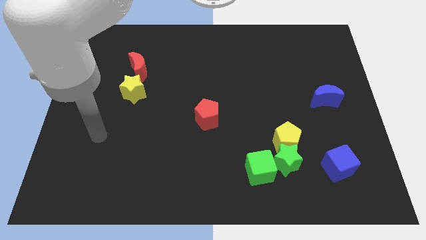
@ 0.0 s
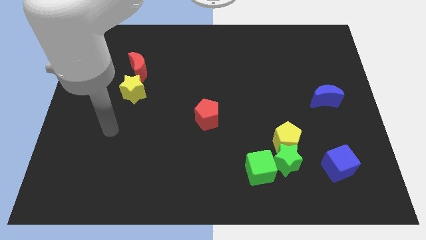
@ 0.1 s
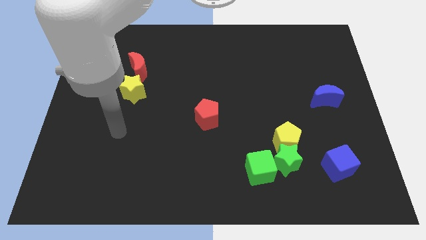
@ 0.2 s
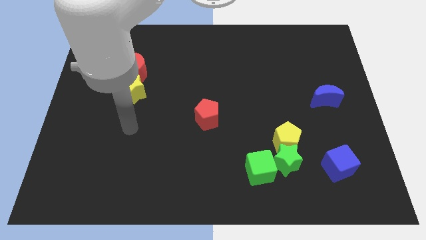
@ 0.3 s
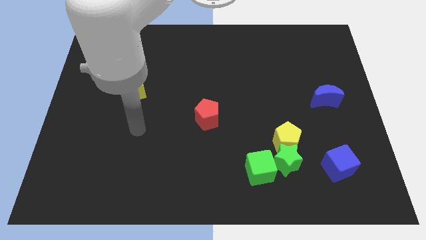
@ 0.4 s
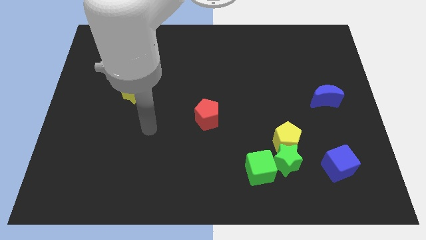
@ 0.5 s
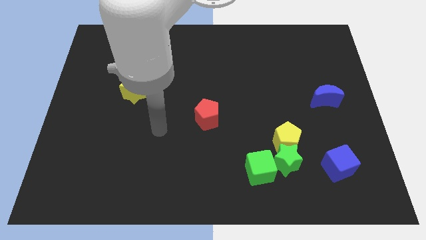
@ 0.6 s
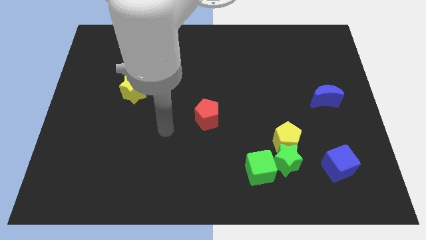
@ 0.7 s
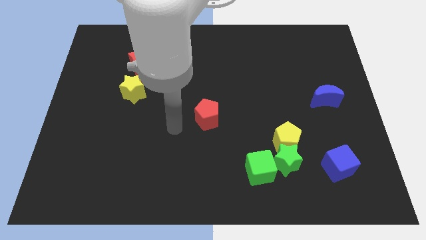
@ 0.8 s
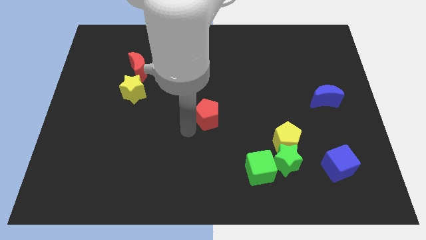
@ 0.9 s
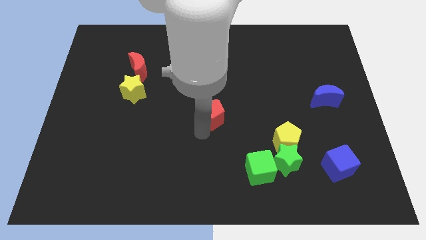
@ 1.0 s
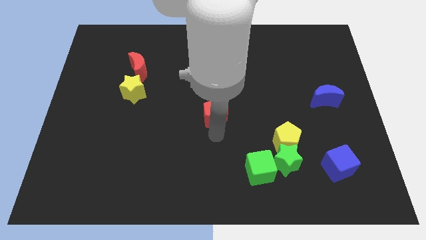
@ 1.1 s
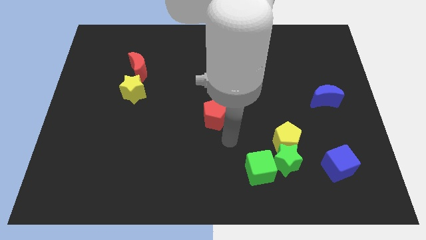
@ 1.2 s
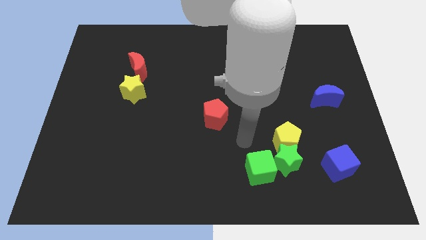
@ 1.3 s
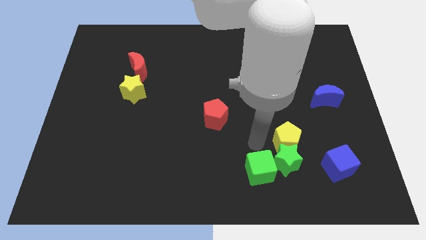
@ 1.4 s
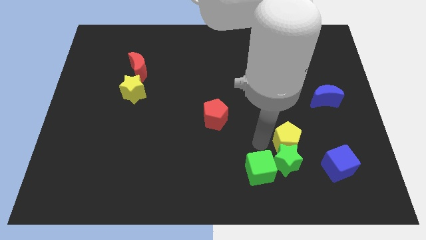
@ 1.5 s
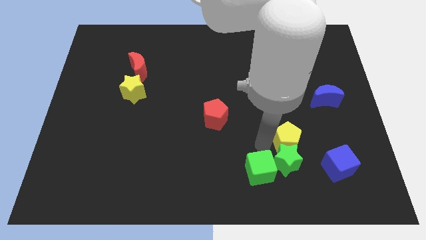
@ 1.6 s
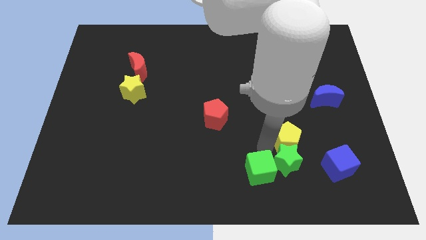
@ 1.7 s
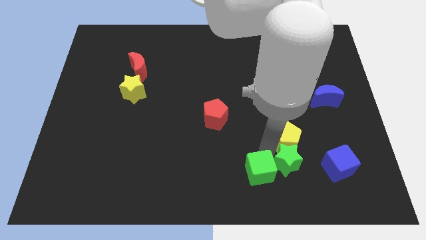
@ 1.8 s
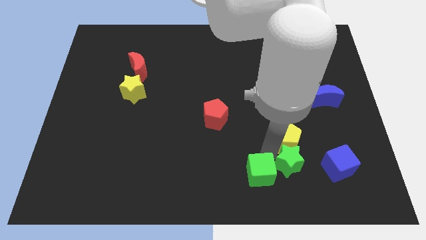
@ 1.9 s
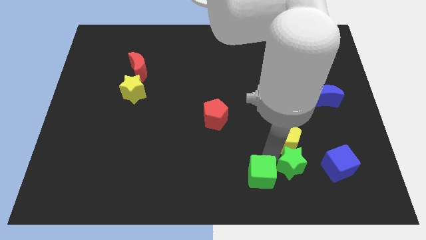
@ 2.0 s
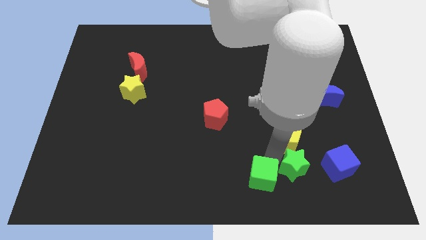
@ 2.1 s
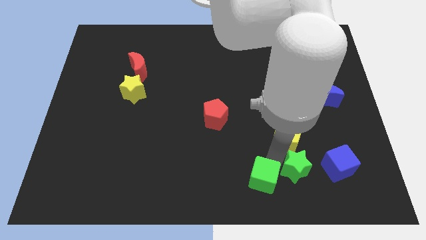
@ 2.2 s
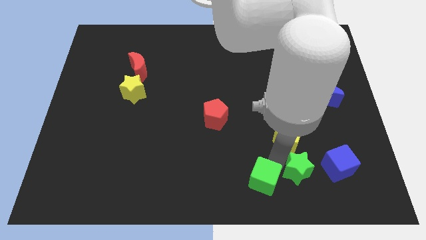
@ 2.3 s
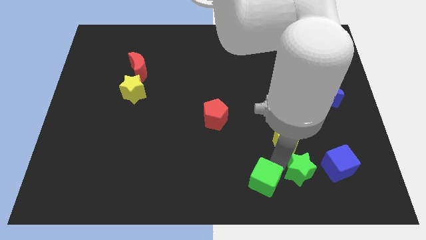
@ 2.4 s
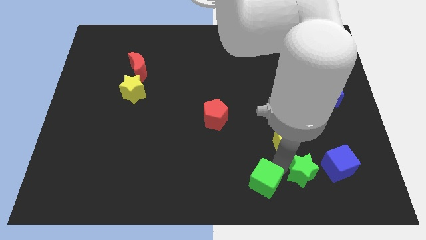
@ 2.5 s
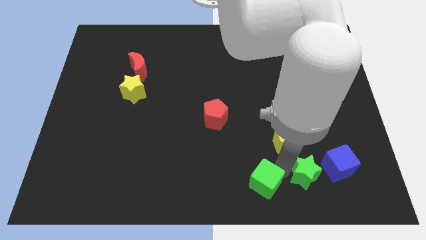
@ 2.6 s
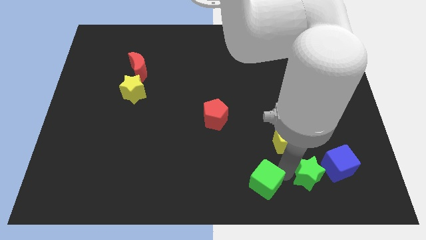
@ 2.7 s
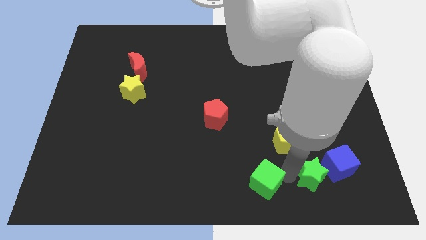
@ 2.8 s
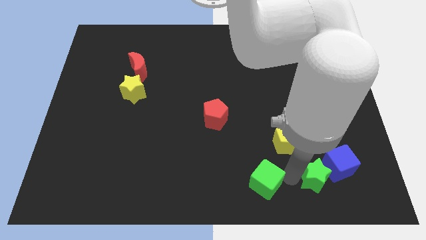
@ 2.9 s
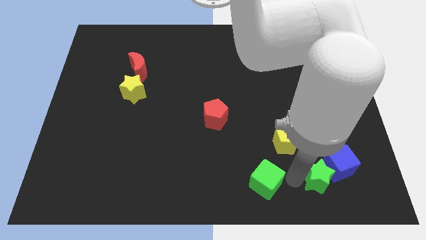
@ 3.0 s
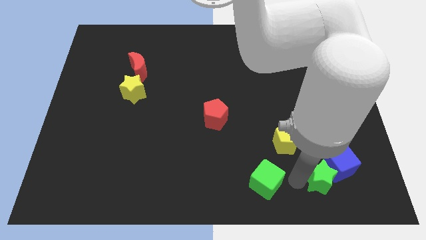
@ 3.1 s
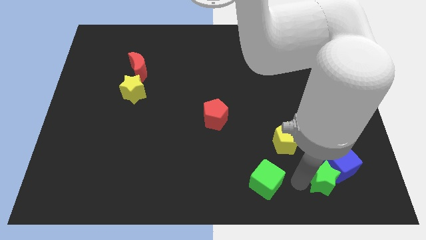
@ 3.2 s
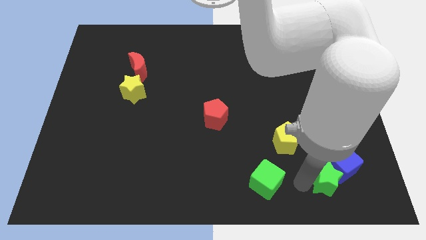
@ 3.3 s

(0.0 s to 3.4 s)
move the green star away from the yellow pentagon and green cube

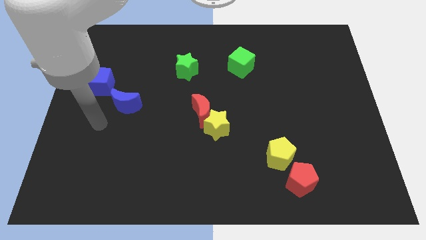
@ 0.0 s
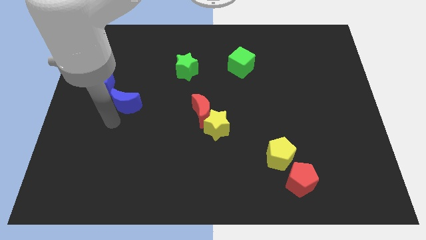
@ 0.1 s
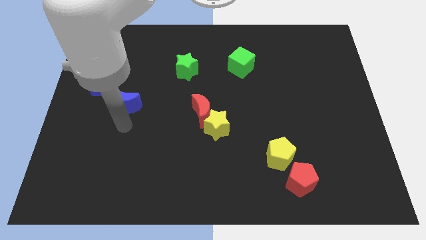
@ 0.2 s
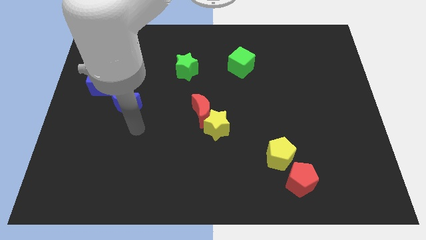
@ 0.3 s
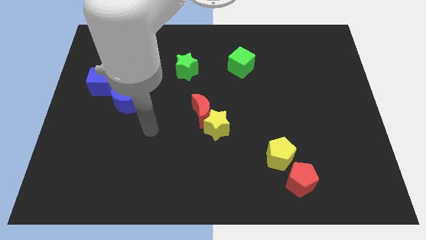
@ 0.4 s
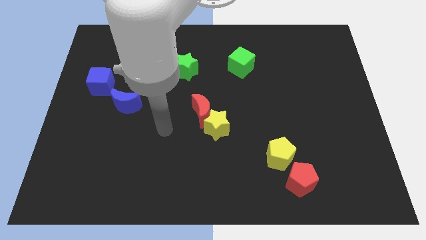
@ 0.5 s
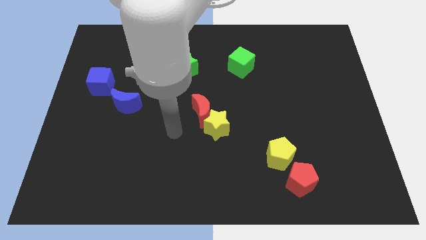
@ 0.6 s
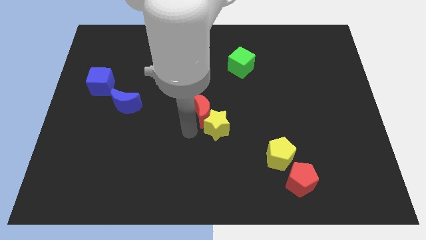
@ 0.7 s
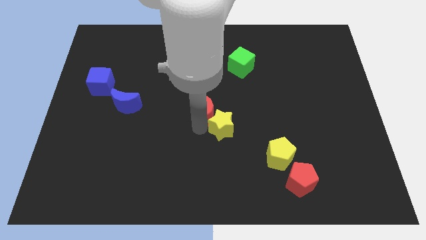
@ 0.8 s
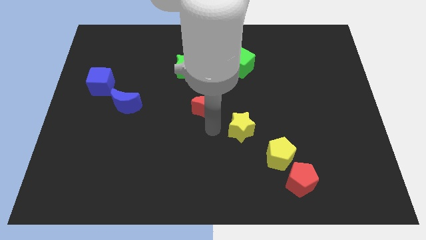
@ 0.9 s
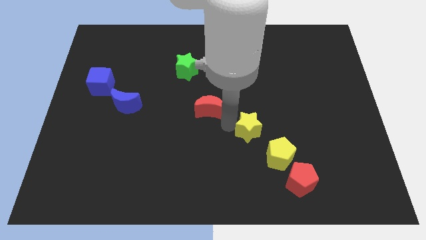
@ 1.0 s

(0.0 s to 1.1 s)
separate the red moon from the yellow star

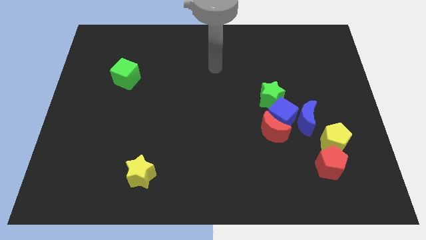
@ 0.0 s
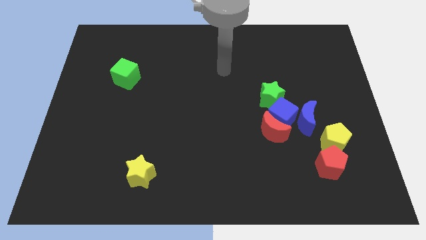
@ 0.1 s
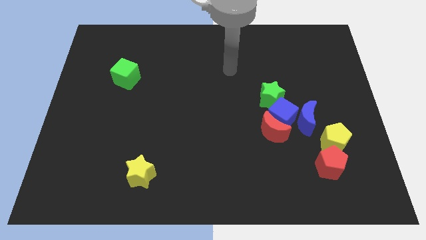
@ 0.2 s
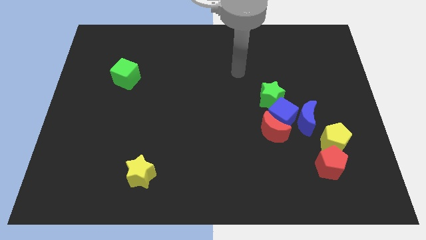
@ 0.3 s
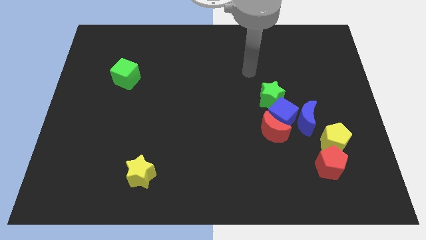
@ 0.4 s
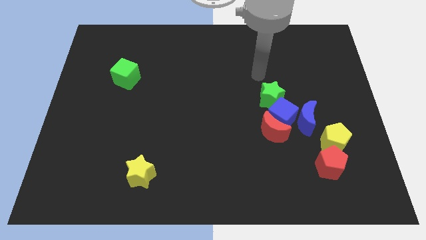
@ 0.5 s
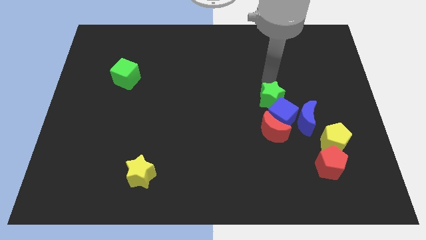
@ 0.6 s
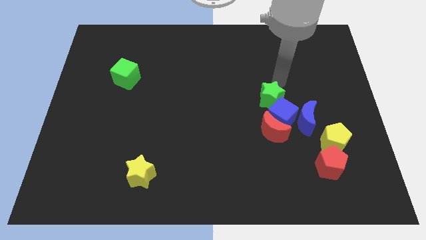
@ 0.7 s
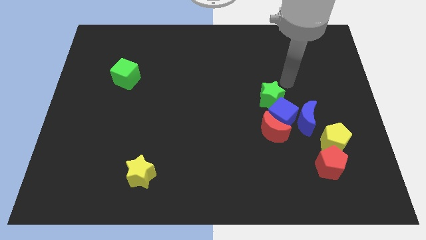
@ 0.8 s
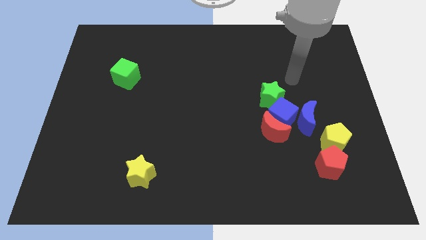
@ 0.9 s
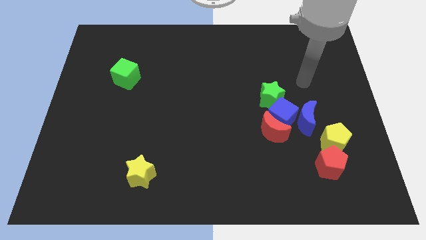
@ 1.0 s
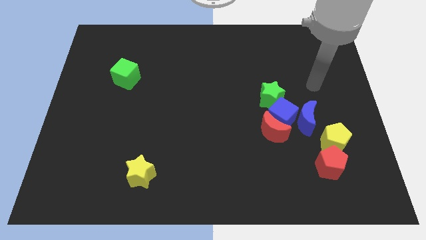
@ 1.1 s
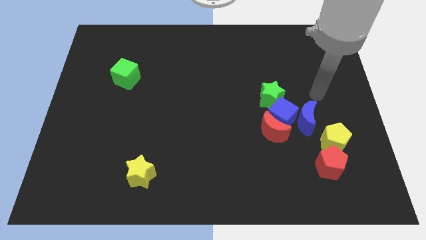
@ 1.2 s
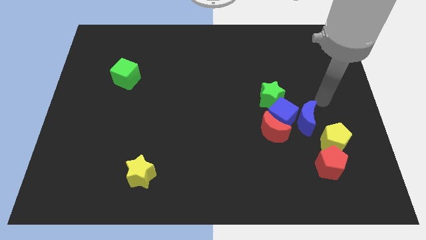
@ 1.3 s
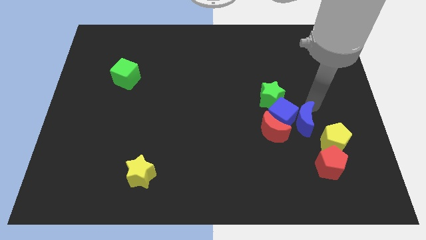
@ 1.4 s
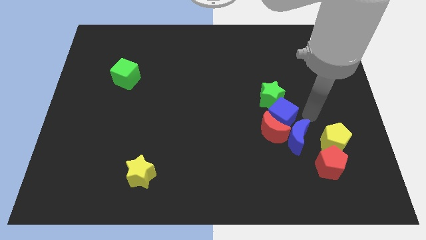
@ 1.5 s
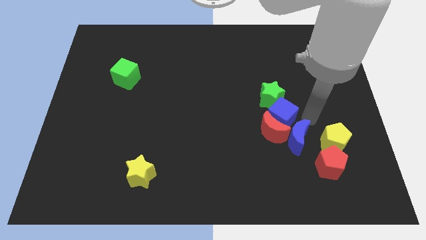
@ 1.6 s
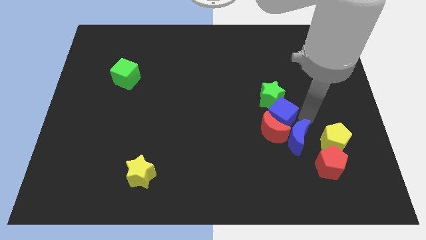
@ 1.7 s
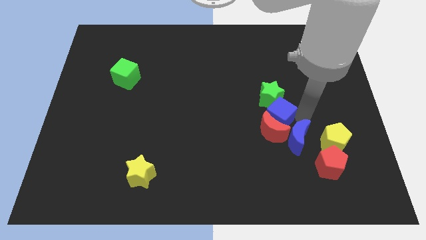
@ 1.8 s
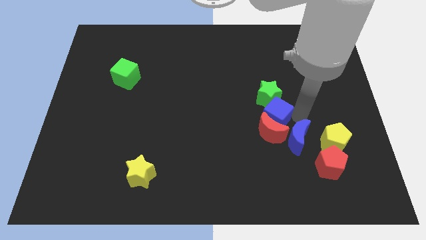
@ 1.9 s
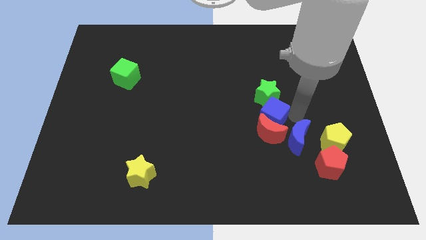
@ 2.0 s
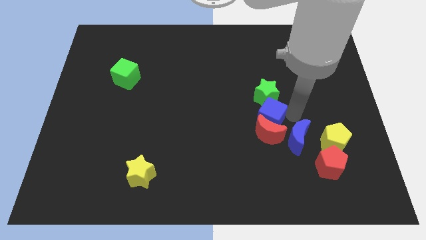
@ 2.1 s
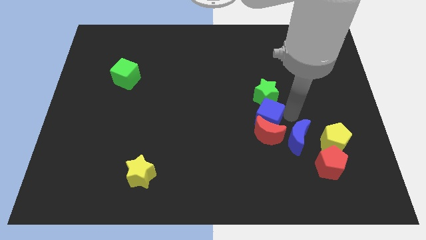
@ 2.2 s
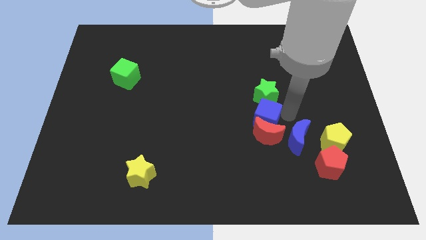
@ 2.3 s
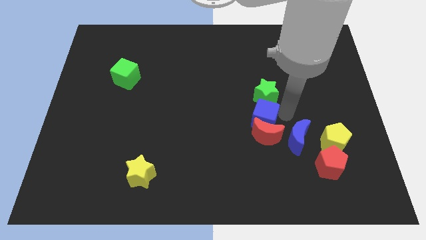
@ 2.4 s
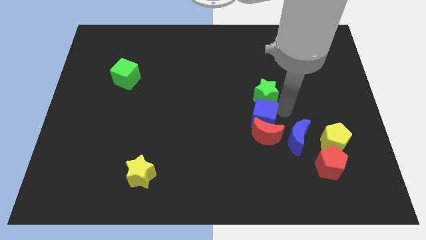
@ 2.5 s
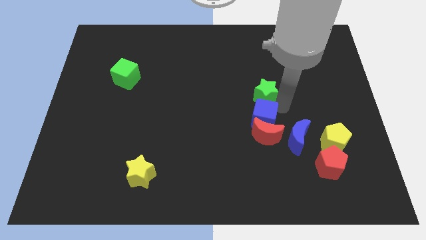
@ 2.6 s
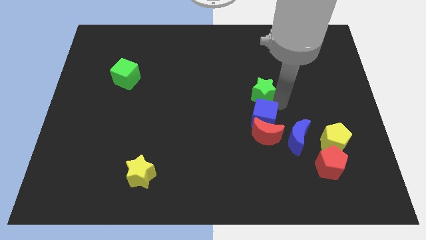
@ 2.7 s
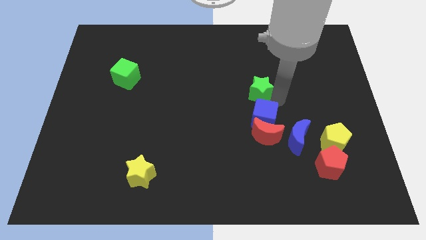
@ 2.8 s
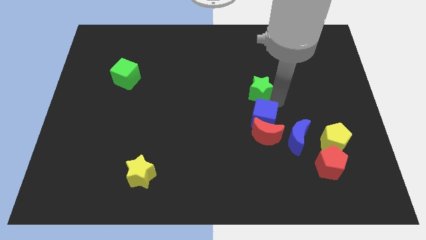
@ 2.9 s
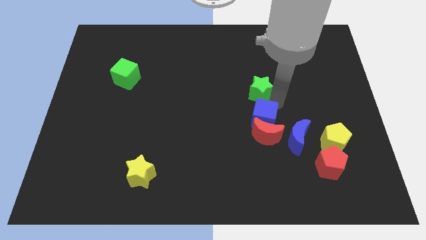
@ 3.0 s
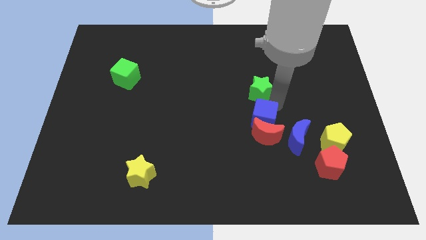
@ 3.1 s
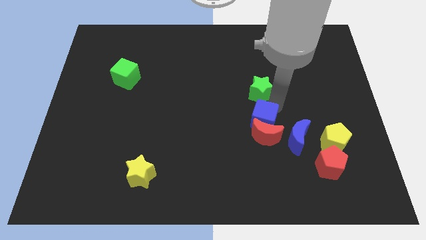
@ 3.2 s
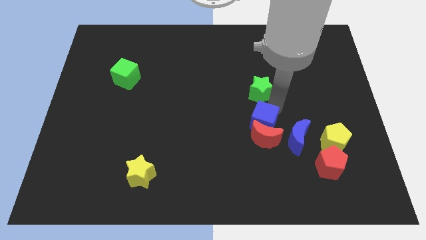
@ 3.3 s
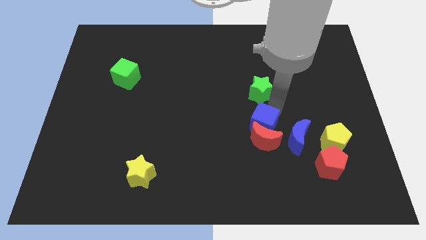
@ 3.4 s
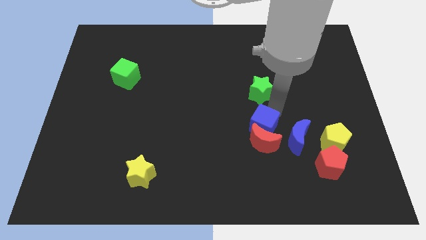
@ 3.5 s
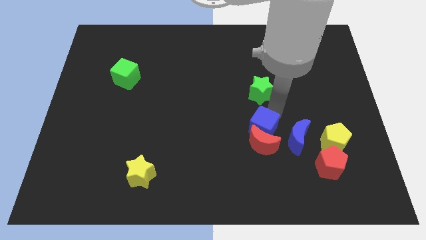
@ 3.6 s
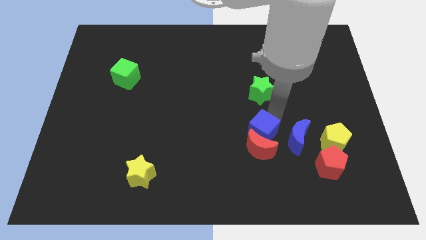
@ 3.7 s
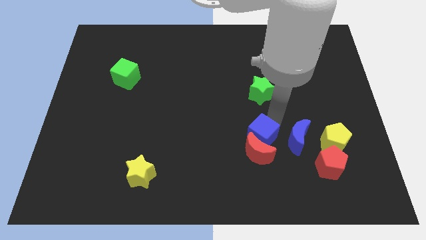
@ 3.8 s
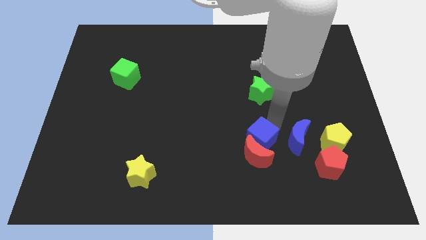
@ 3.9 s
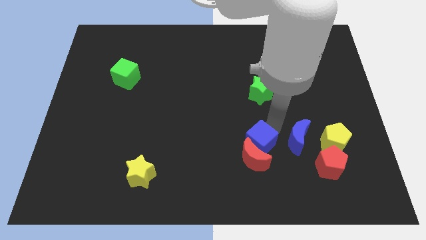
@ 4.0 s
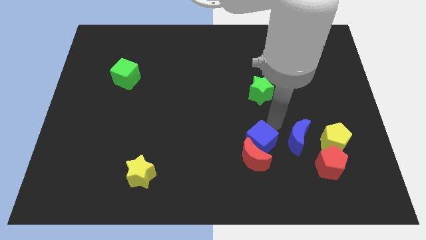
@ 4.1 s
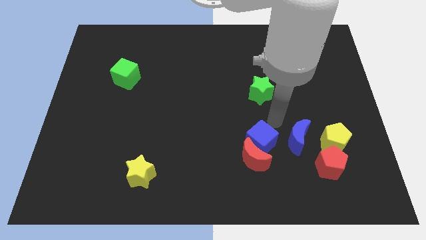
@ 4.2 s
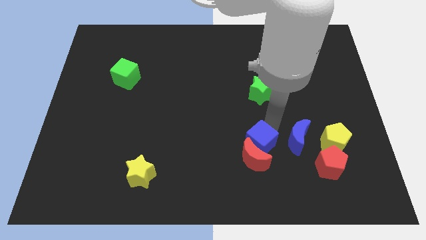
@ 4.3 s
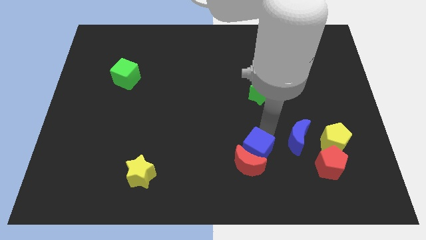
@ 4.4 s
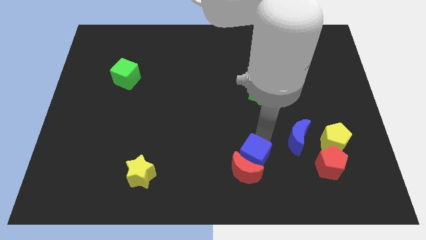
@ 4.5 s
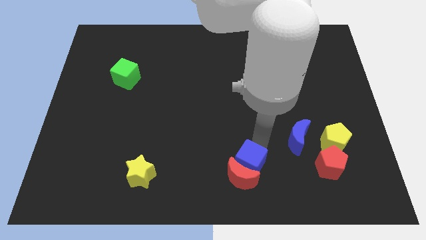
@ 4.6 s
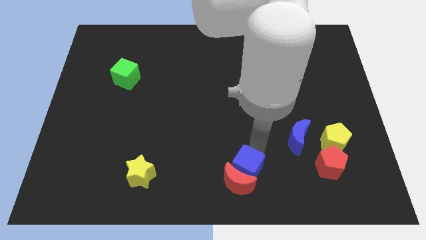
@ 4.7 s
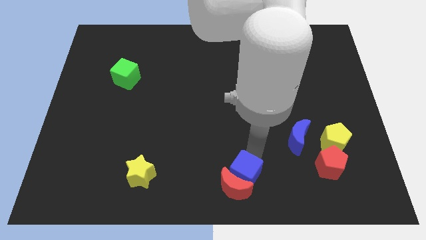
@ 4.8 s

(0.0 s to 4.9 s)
move the blue cube away from the group
